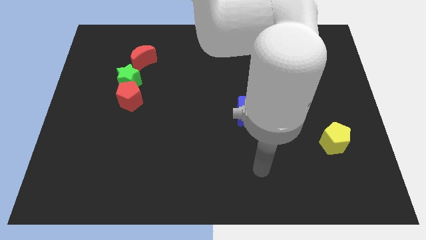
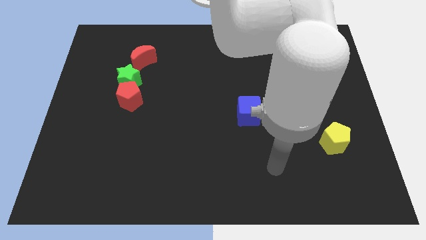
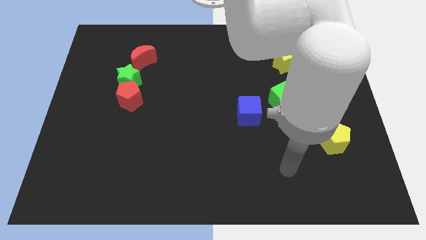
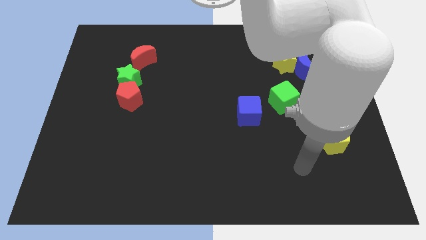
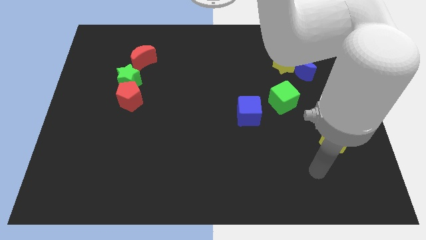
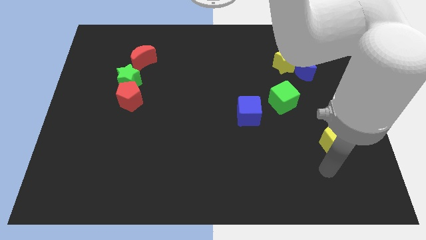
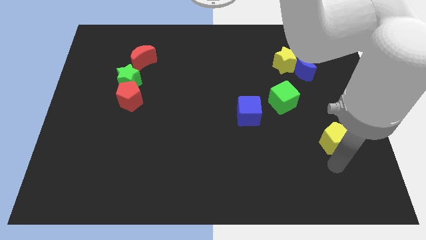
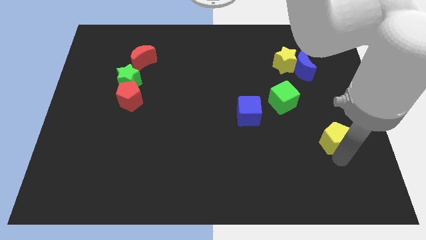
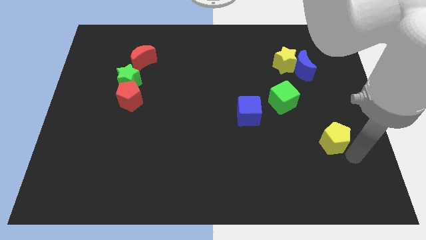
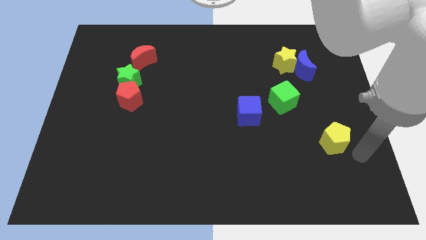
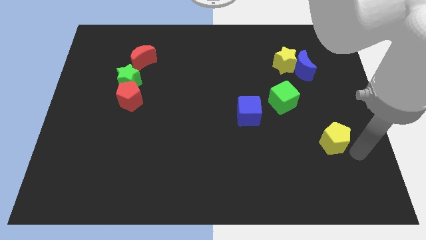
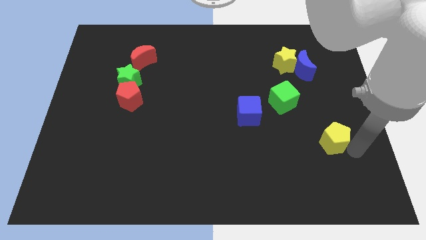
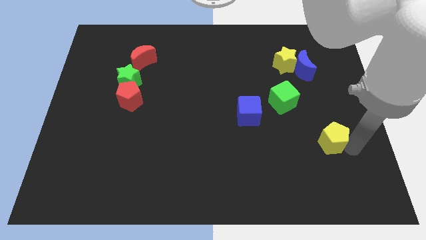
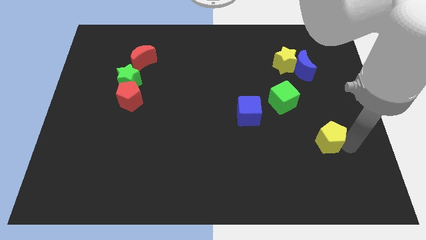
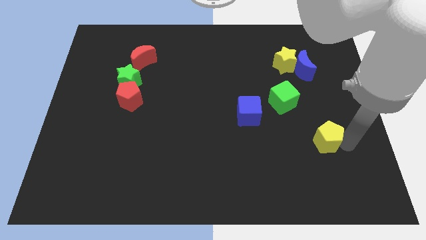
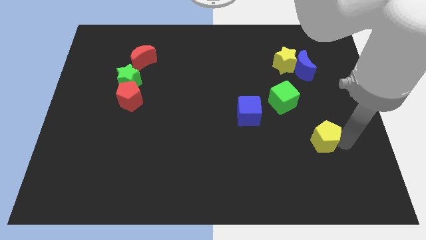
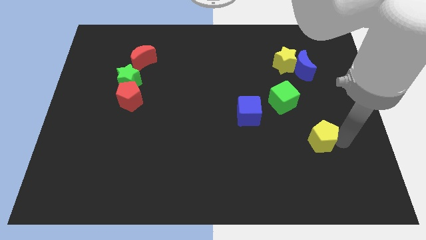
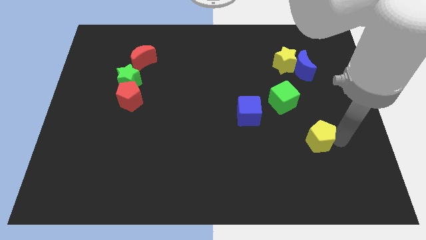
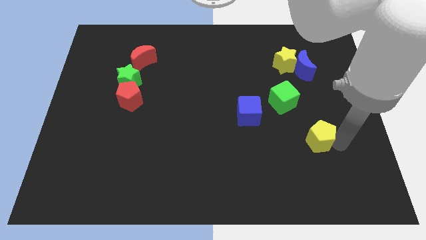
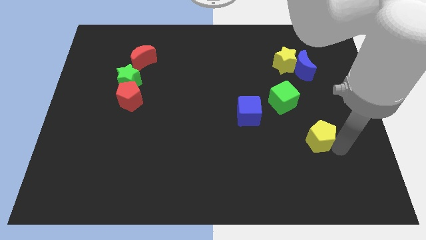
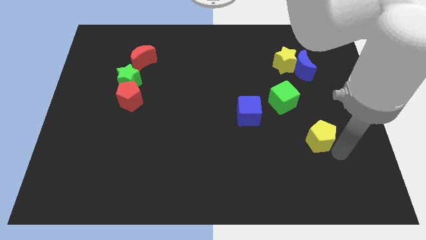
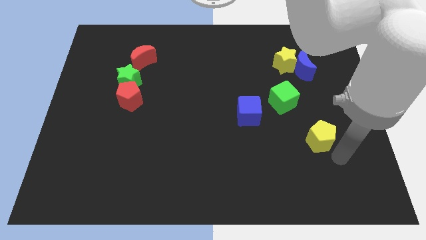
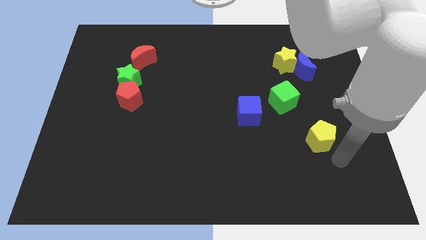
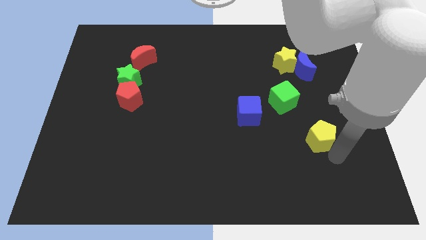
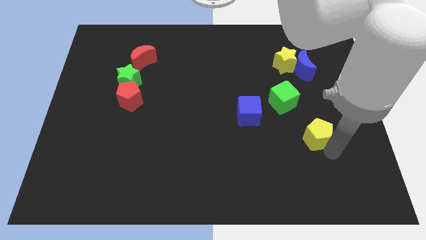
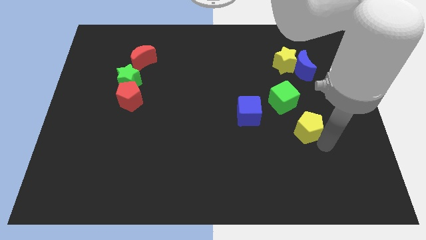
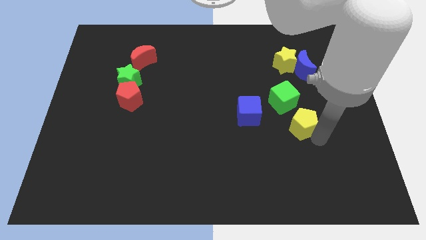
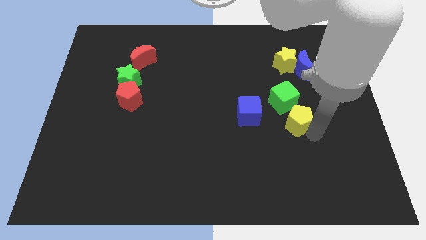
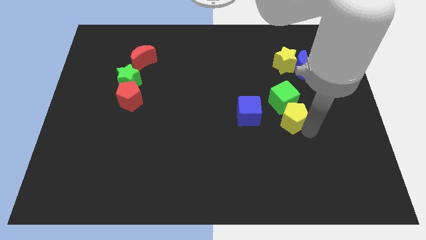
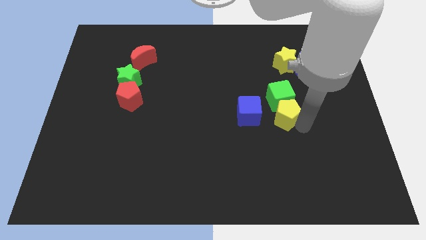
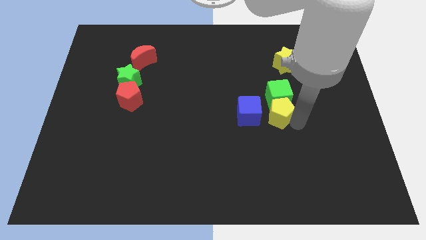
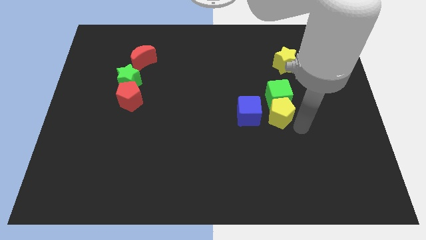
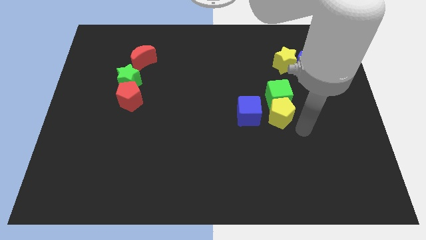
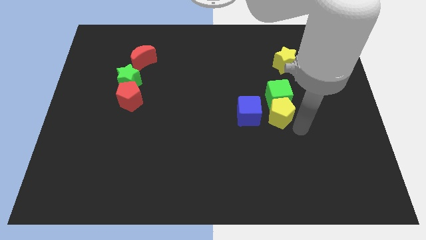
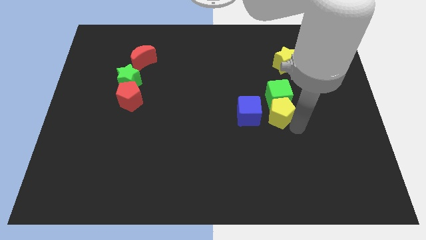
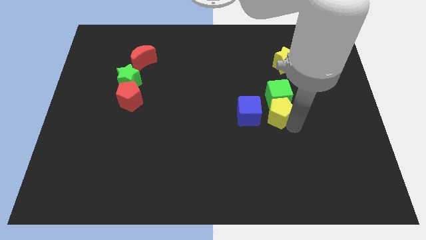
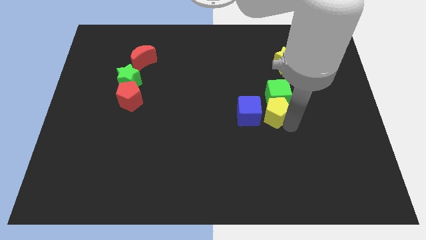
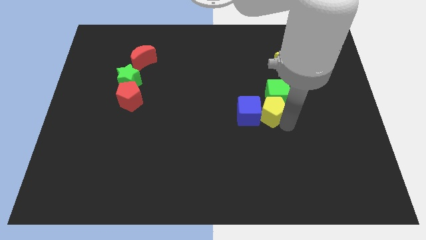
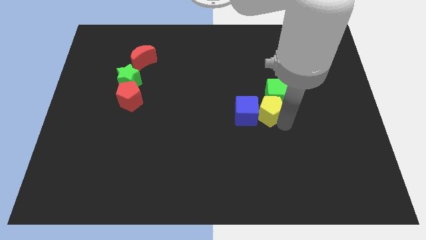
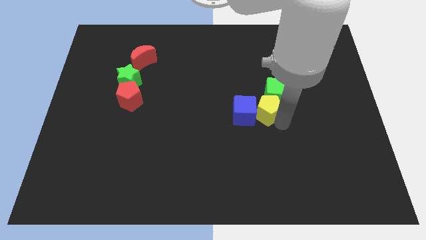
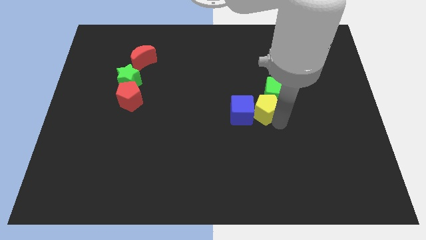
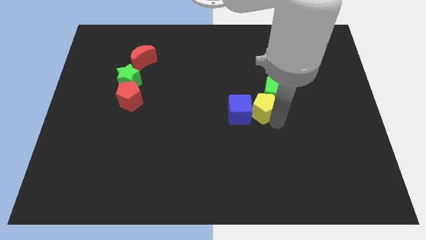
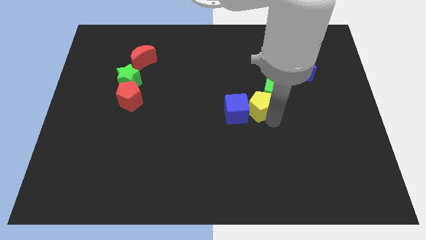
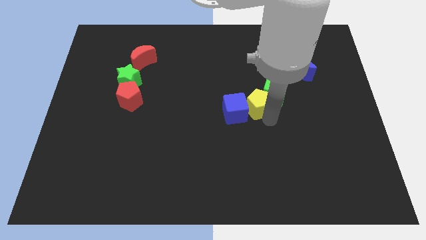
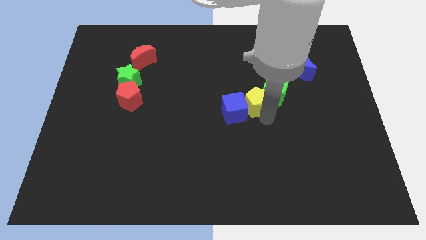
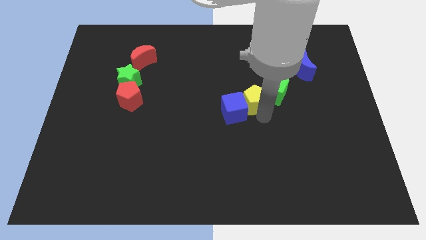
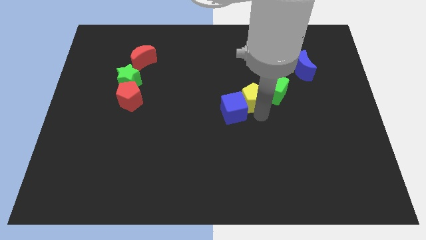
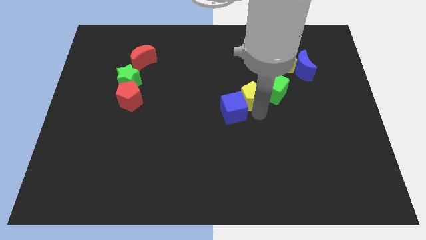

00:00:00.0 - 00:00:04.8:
push the yellow pentagon up and to the left

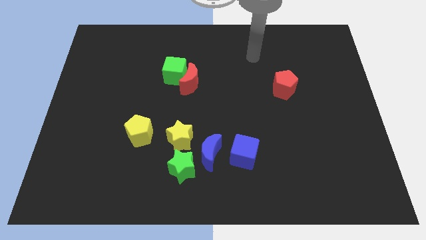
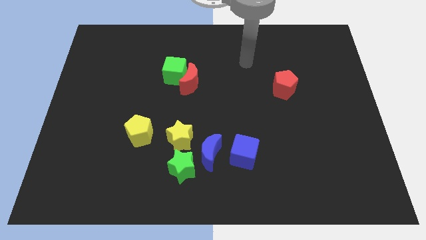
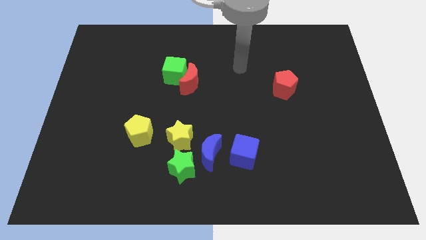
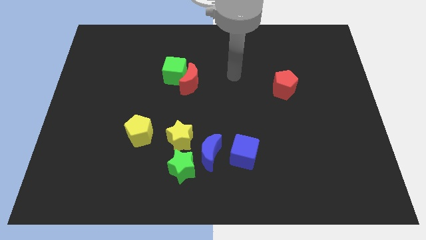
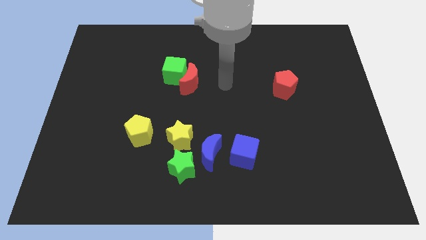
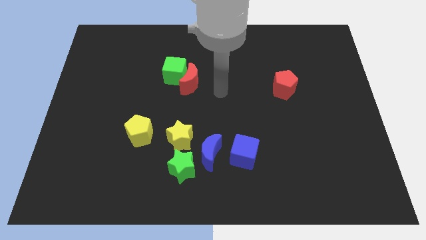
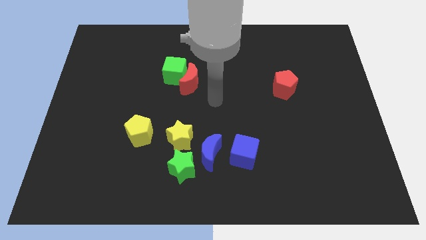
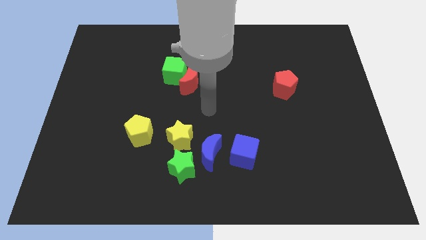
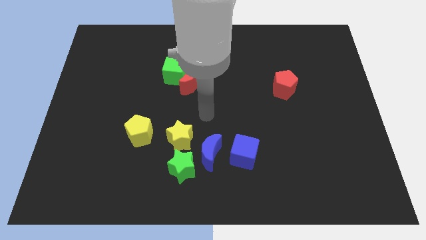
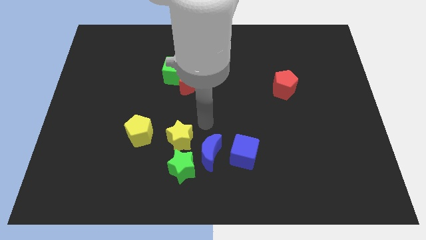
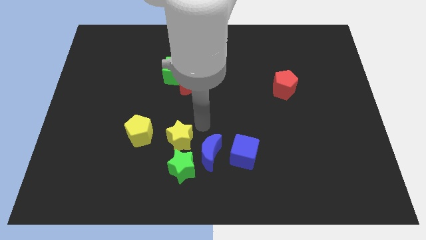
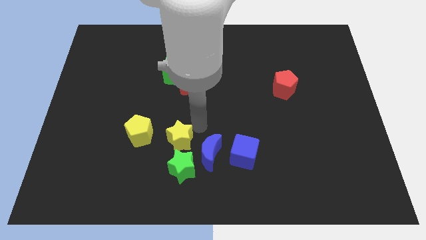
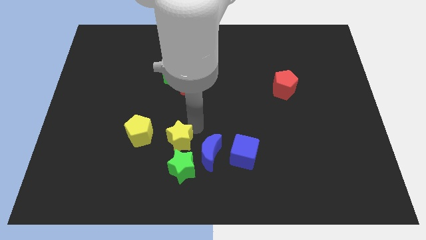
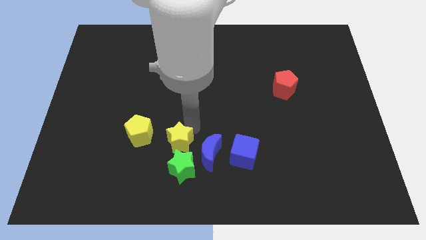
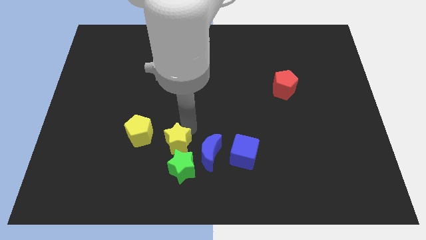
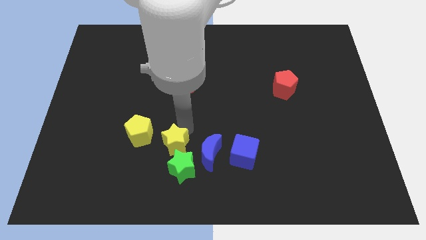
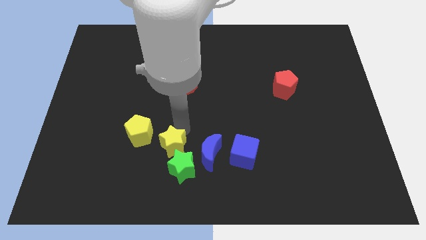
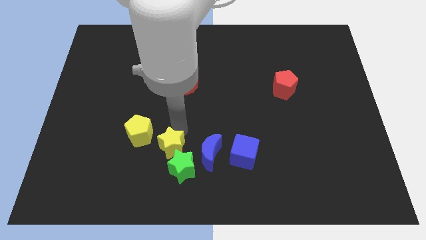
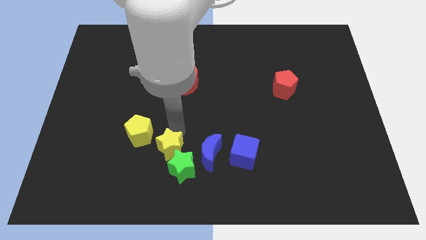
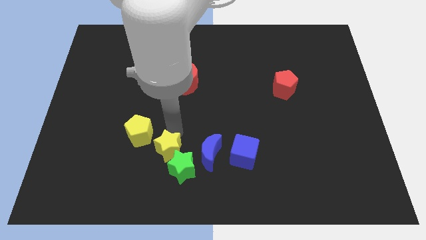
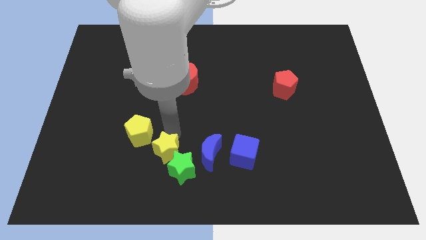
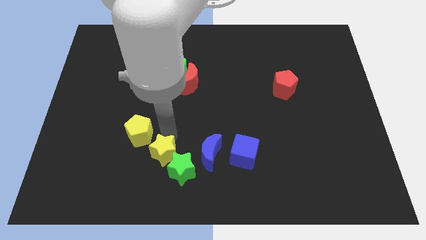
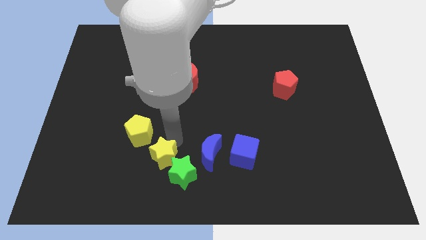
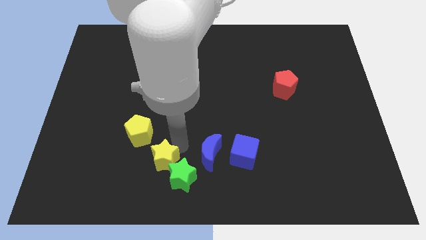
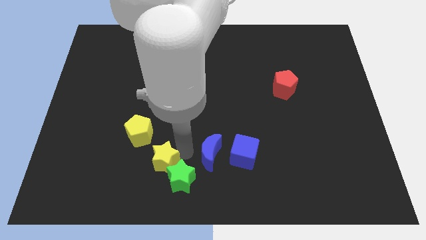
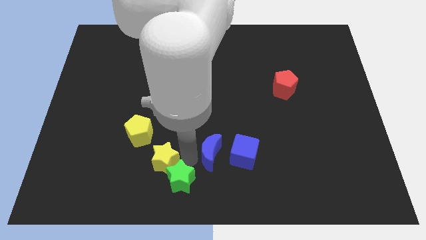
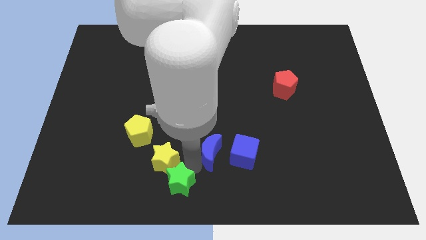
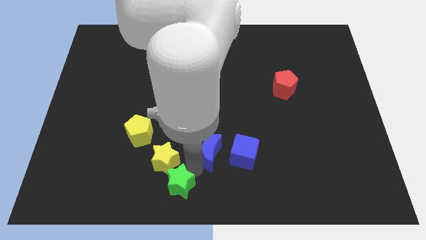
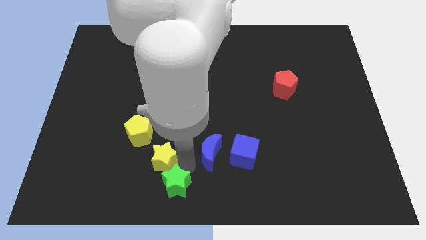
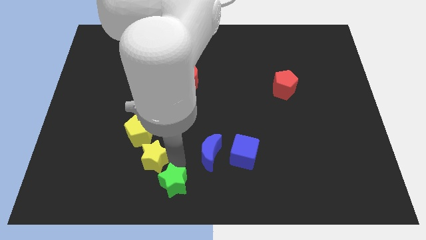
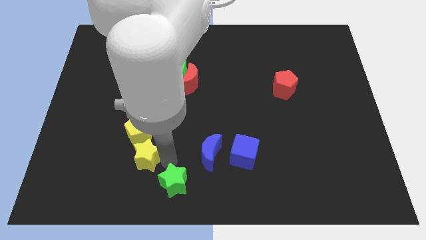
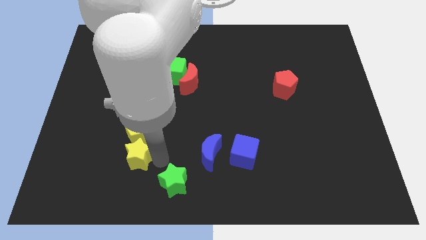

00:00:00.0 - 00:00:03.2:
push the yellow star a little bit left
